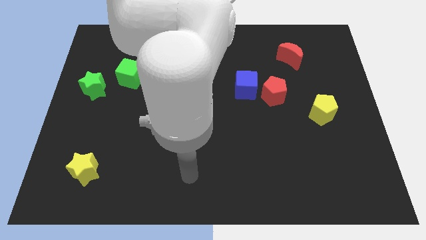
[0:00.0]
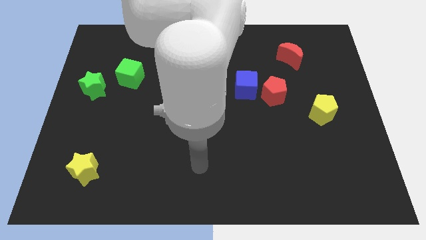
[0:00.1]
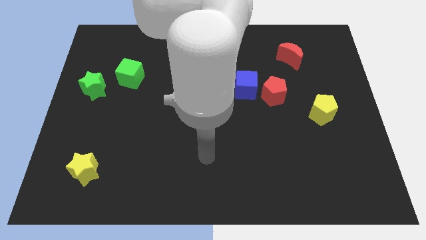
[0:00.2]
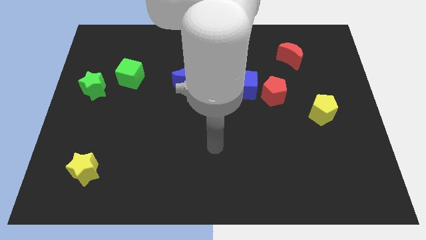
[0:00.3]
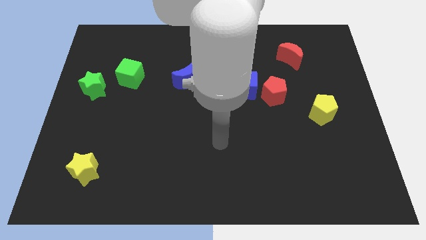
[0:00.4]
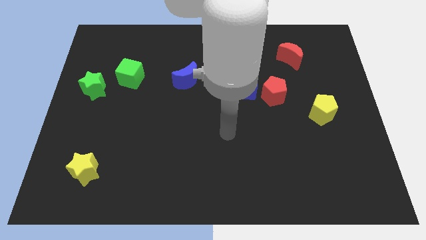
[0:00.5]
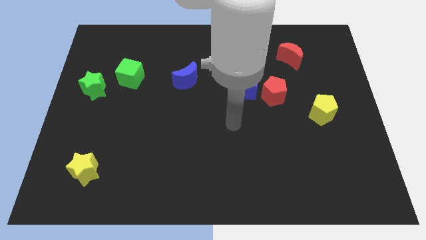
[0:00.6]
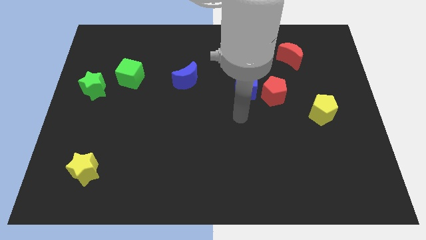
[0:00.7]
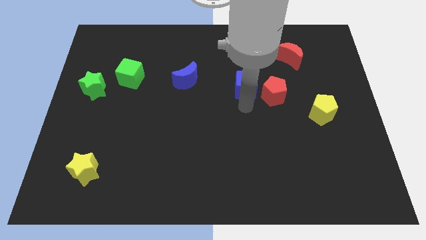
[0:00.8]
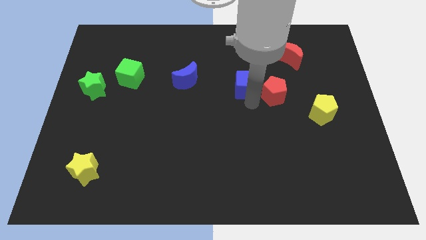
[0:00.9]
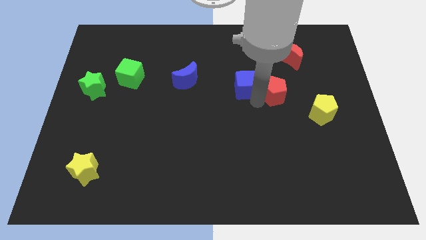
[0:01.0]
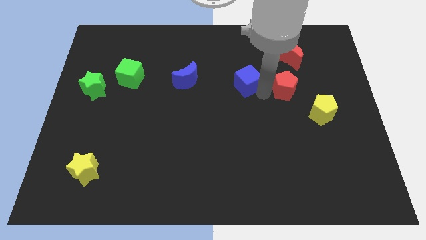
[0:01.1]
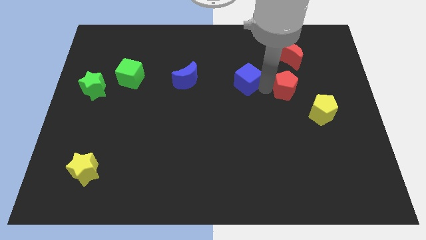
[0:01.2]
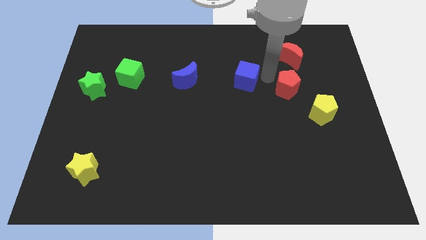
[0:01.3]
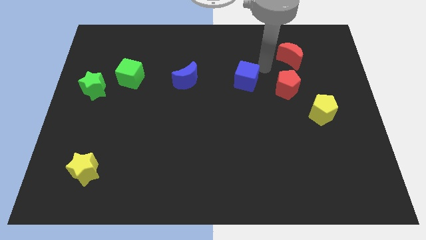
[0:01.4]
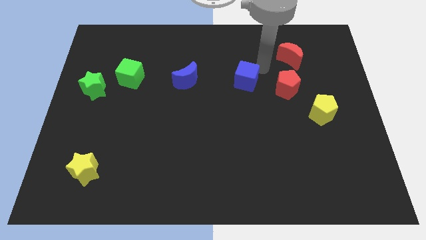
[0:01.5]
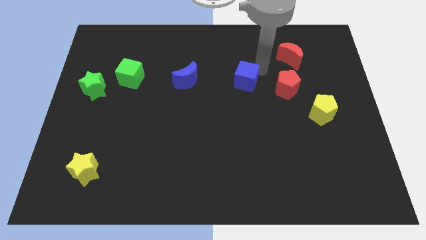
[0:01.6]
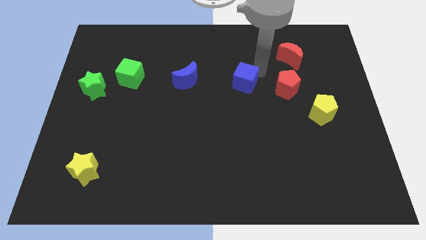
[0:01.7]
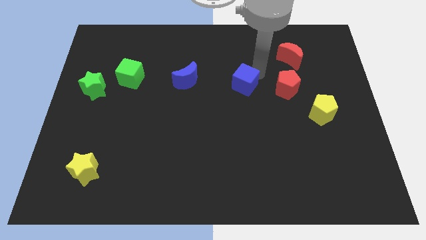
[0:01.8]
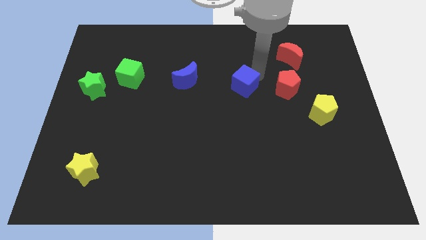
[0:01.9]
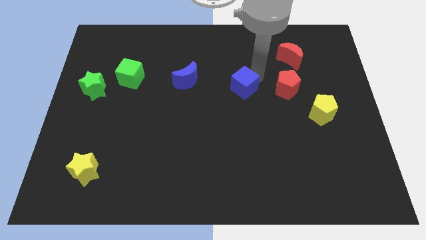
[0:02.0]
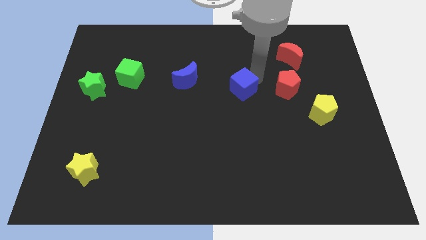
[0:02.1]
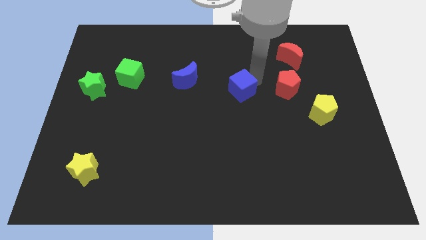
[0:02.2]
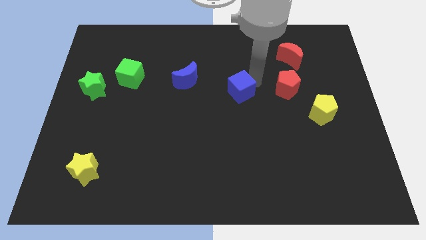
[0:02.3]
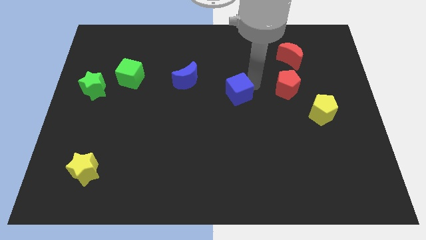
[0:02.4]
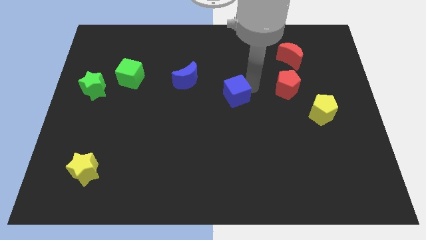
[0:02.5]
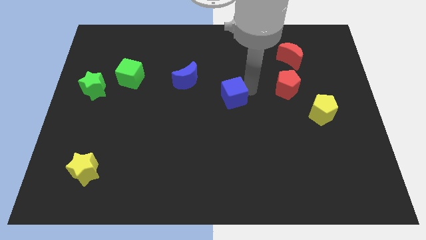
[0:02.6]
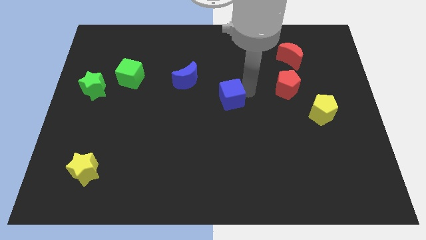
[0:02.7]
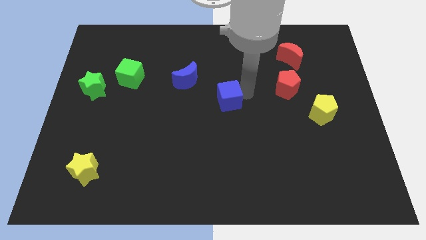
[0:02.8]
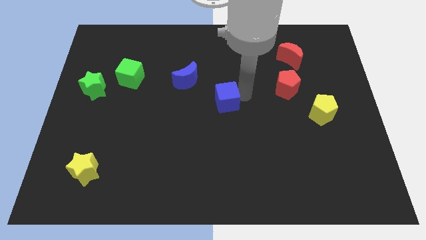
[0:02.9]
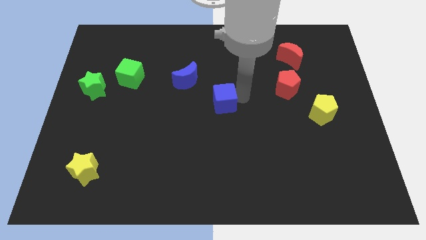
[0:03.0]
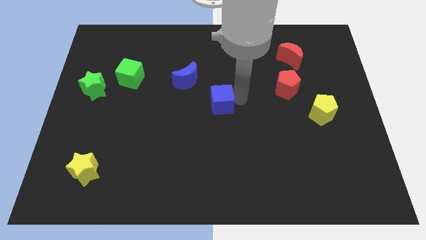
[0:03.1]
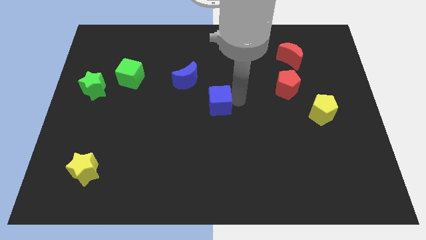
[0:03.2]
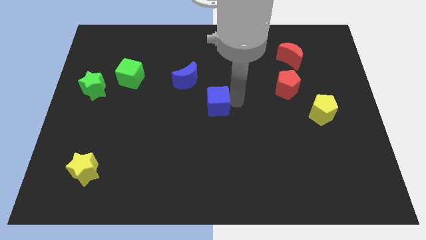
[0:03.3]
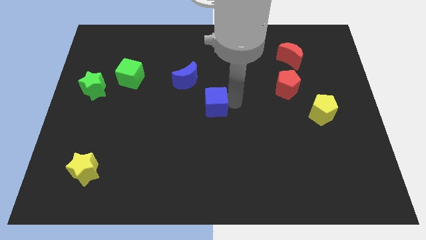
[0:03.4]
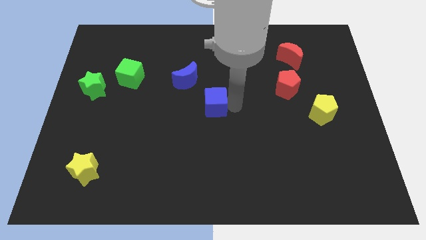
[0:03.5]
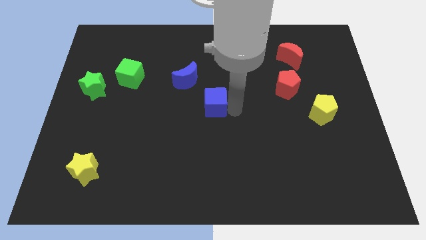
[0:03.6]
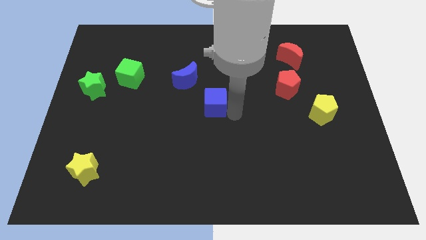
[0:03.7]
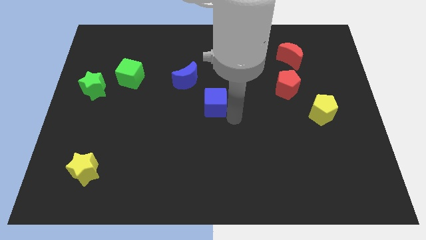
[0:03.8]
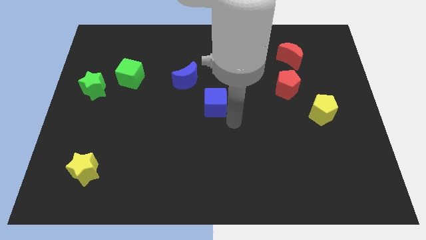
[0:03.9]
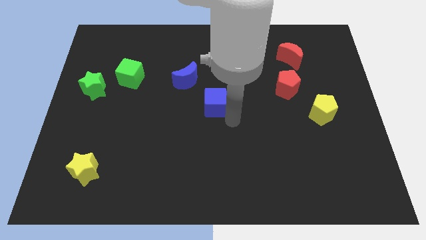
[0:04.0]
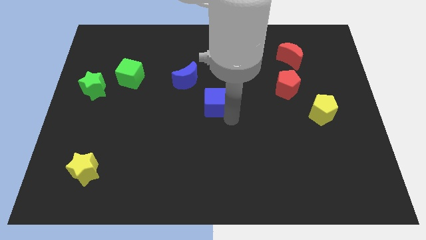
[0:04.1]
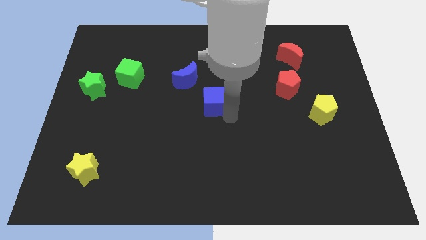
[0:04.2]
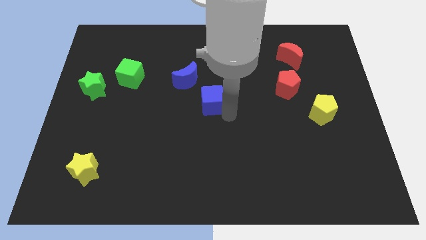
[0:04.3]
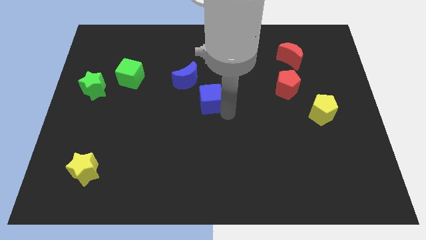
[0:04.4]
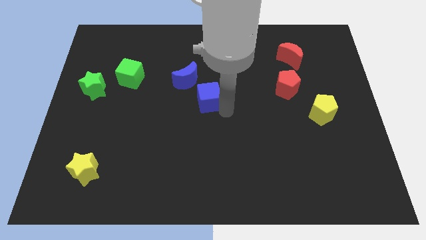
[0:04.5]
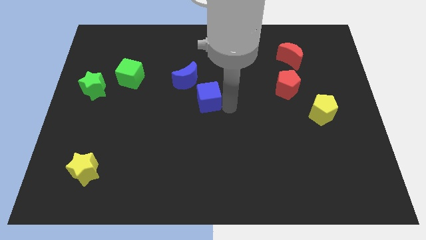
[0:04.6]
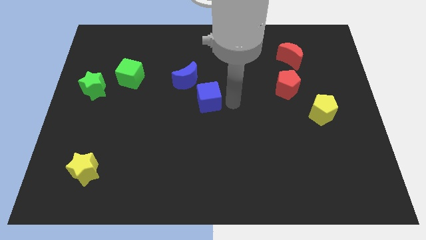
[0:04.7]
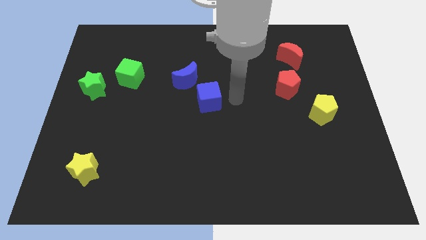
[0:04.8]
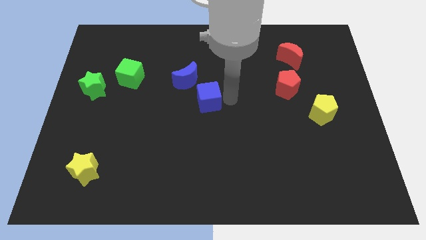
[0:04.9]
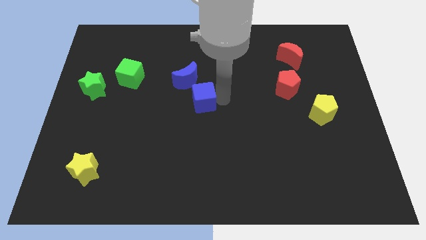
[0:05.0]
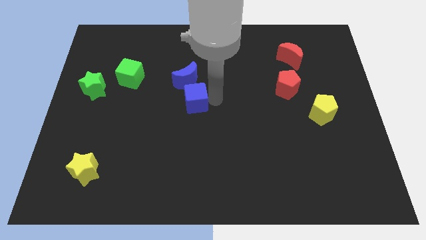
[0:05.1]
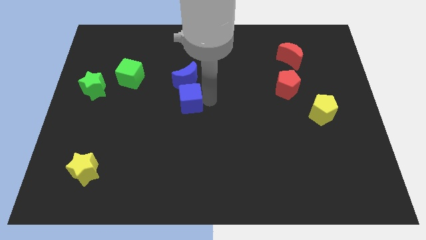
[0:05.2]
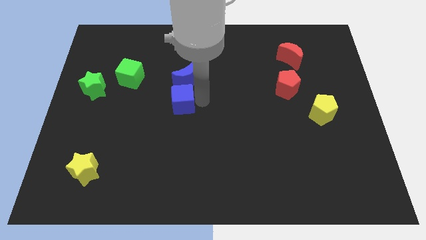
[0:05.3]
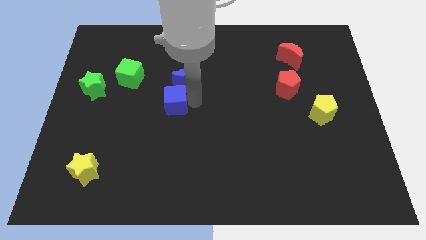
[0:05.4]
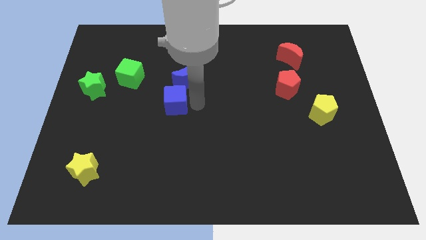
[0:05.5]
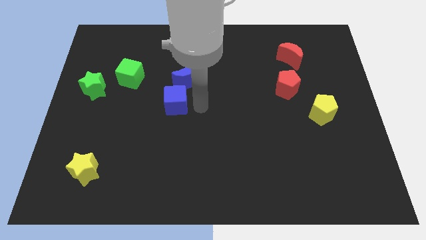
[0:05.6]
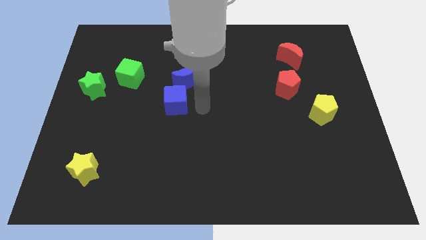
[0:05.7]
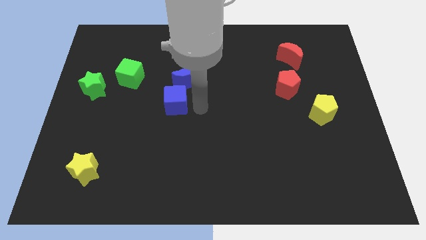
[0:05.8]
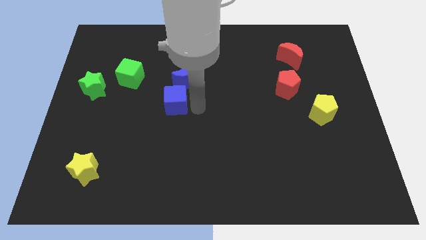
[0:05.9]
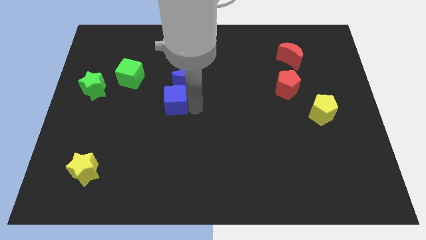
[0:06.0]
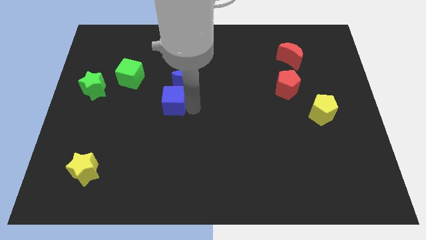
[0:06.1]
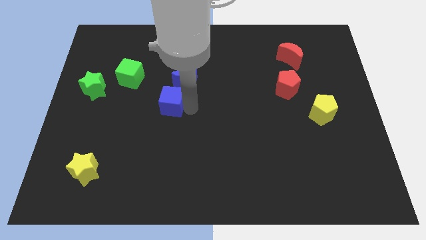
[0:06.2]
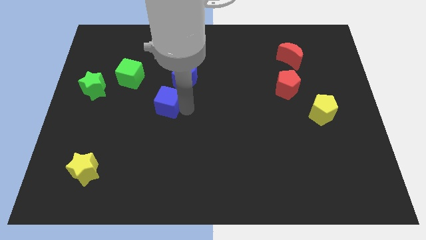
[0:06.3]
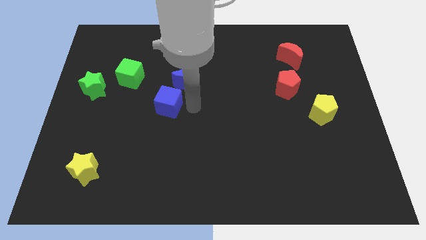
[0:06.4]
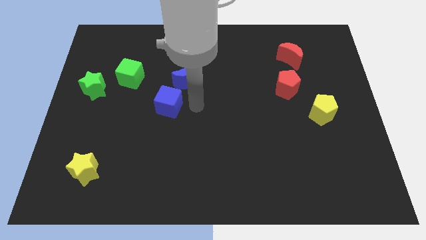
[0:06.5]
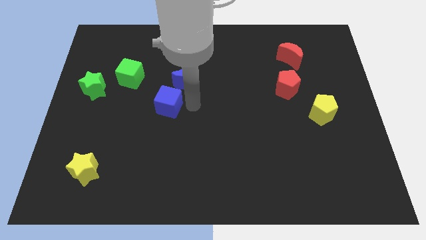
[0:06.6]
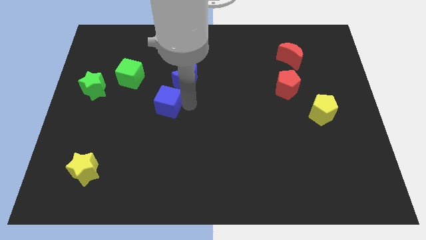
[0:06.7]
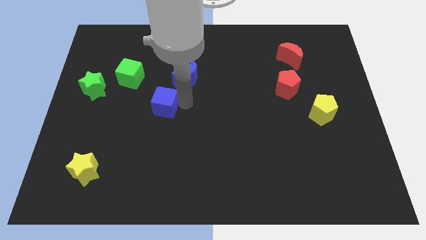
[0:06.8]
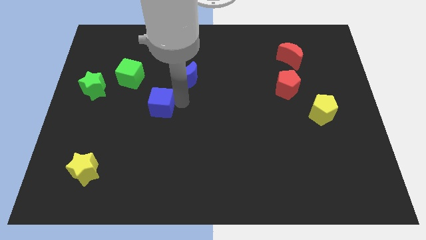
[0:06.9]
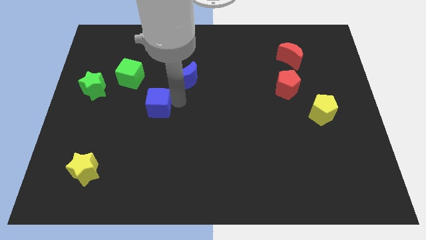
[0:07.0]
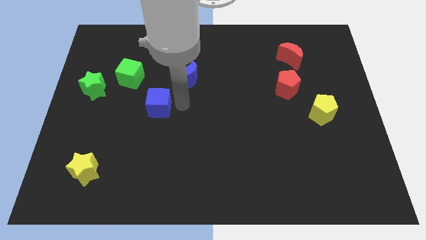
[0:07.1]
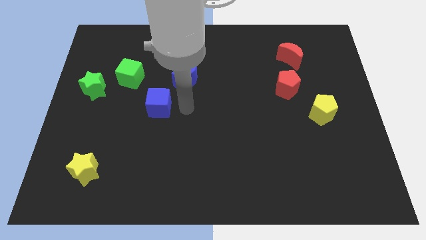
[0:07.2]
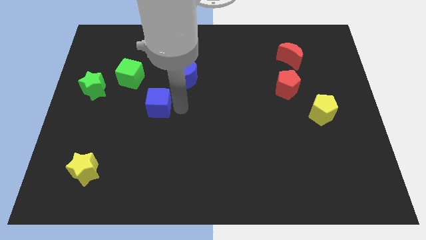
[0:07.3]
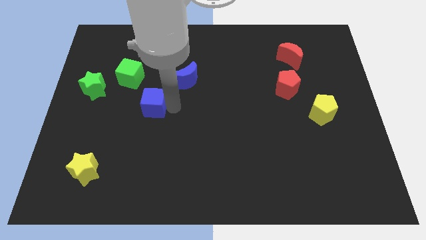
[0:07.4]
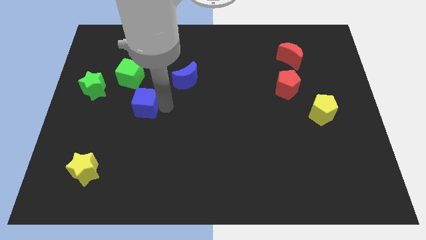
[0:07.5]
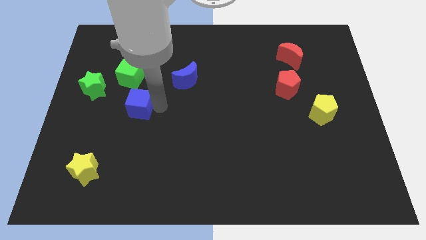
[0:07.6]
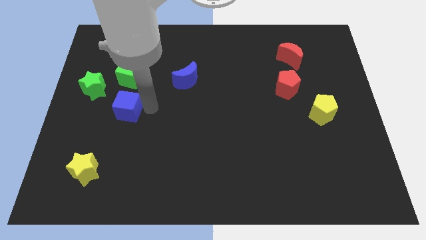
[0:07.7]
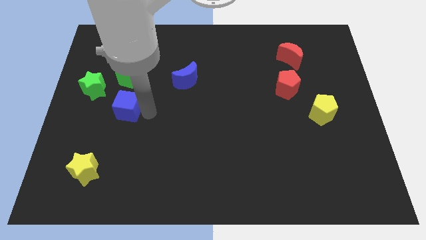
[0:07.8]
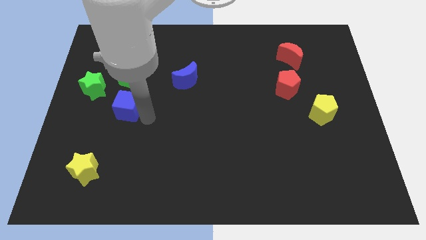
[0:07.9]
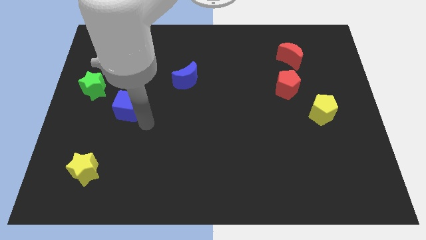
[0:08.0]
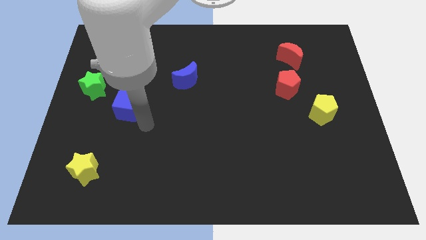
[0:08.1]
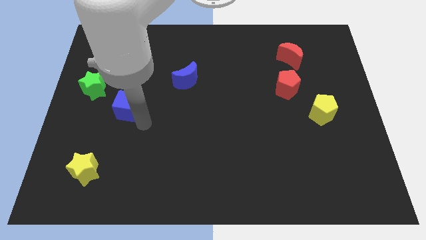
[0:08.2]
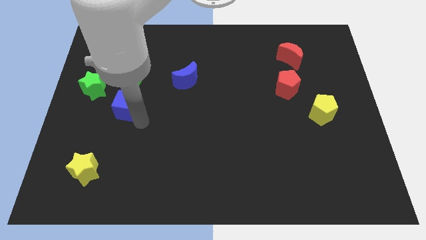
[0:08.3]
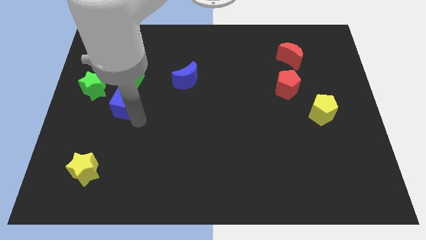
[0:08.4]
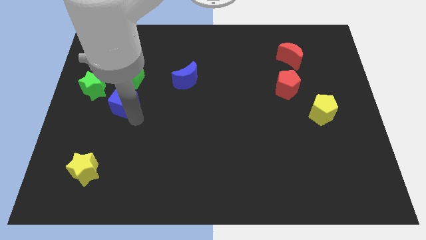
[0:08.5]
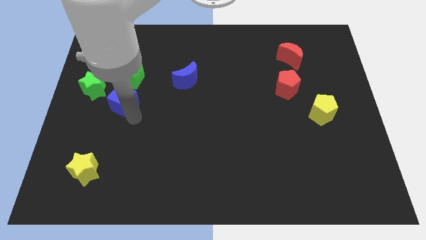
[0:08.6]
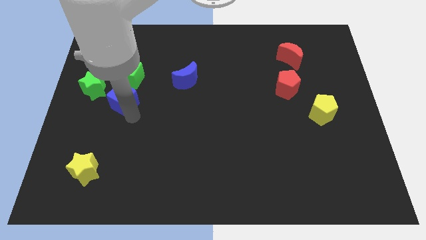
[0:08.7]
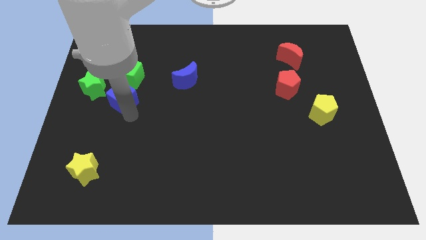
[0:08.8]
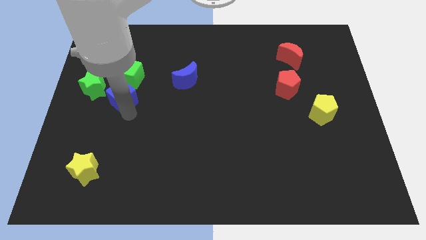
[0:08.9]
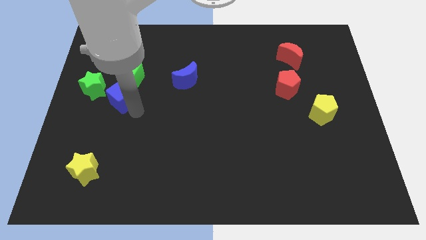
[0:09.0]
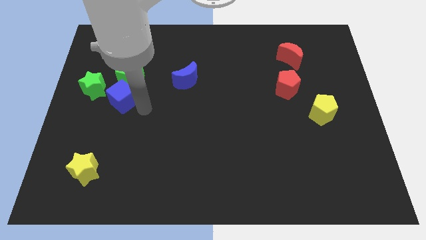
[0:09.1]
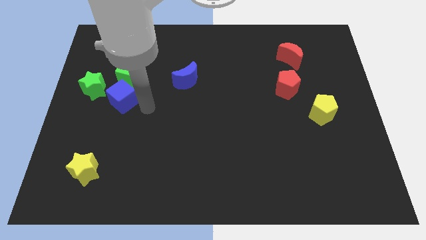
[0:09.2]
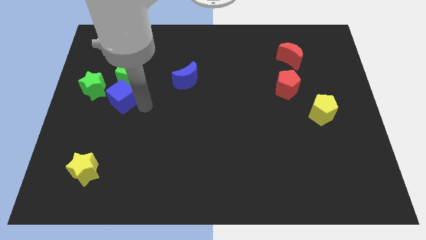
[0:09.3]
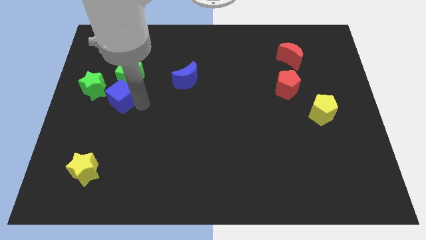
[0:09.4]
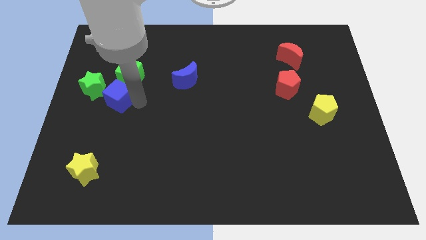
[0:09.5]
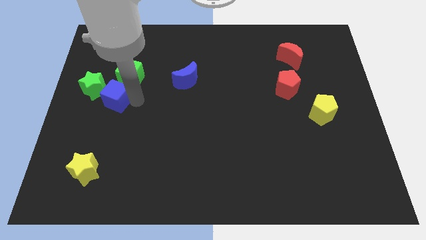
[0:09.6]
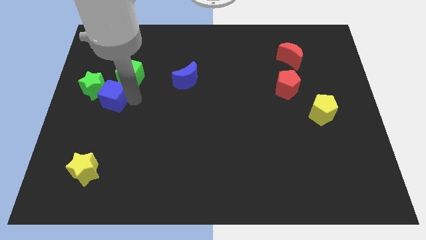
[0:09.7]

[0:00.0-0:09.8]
put the blue cube to the green star
